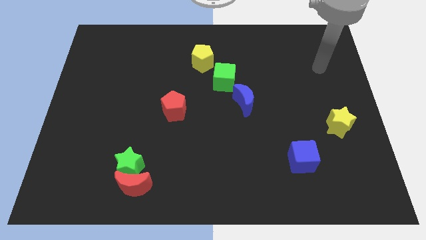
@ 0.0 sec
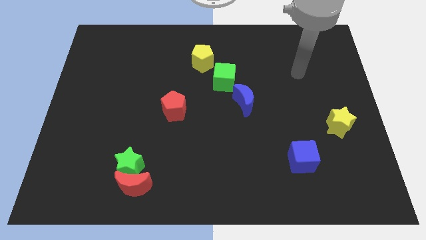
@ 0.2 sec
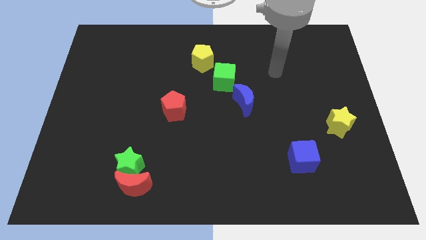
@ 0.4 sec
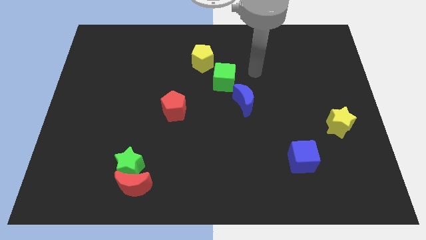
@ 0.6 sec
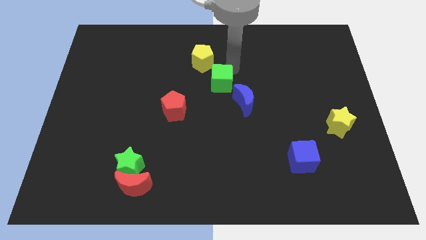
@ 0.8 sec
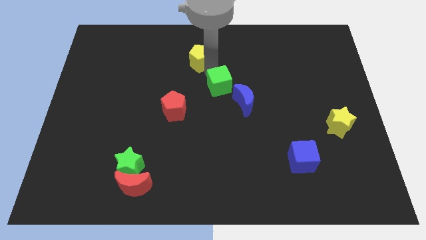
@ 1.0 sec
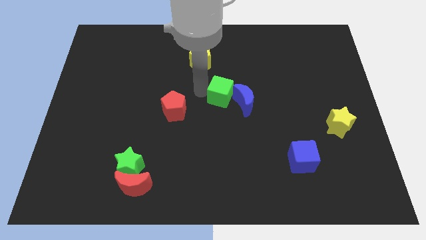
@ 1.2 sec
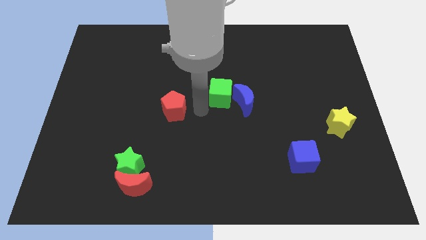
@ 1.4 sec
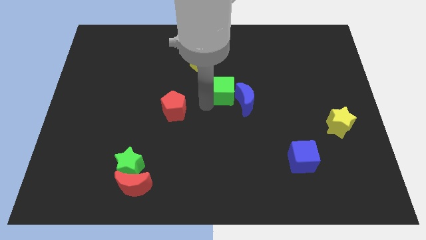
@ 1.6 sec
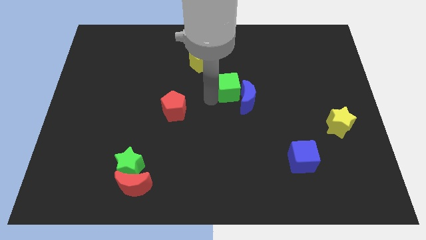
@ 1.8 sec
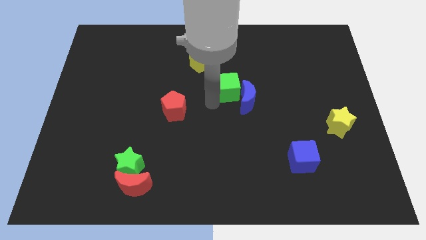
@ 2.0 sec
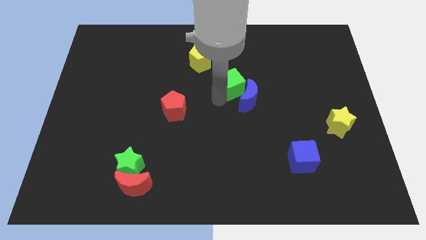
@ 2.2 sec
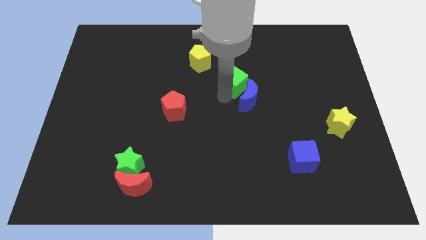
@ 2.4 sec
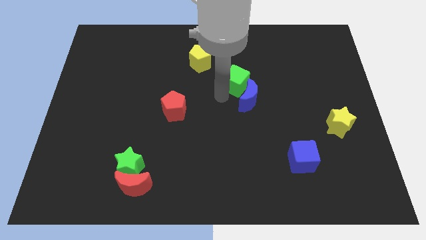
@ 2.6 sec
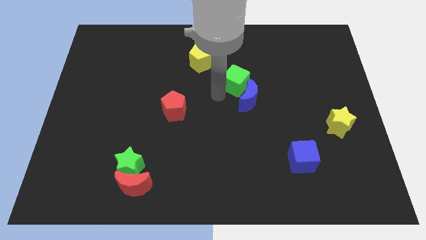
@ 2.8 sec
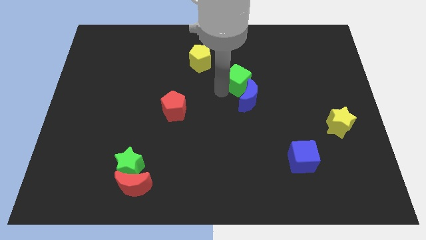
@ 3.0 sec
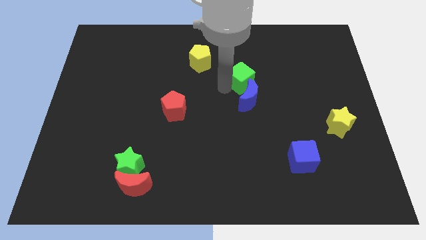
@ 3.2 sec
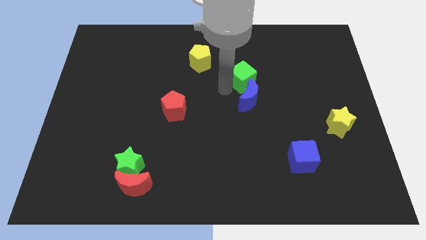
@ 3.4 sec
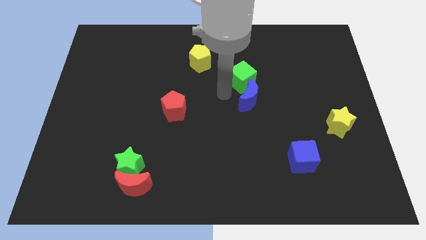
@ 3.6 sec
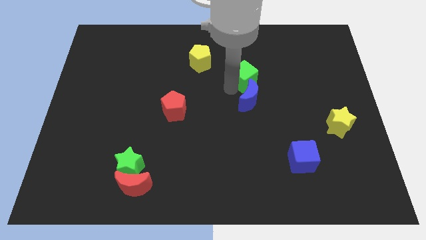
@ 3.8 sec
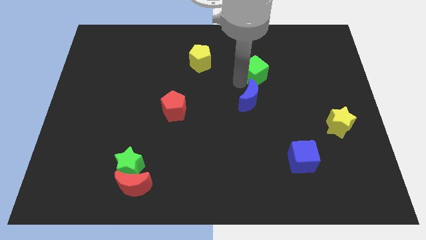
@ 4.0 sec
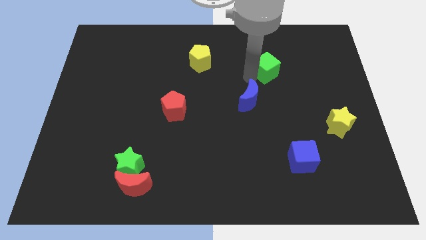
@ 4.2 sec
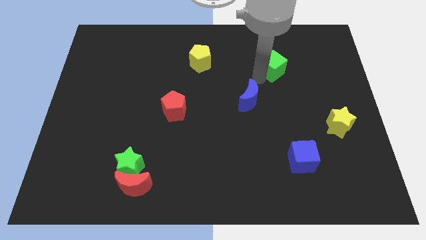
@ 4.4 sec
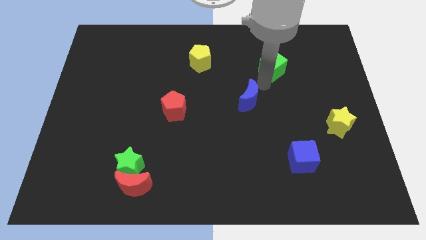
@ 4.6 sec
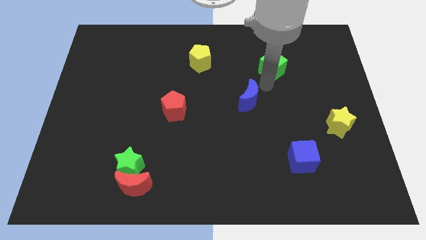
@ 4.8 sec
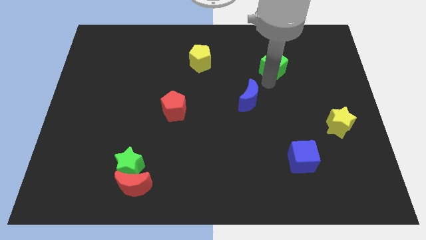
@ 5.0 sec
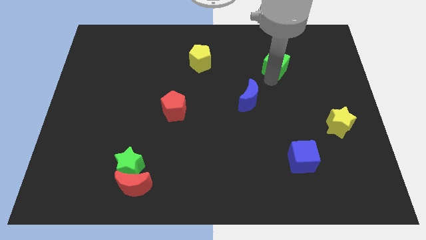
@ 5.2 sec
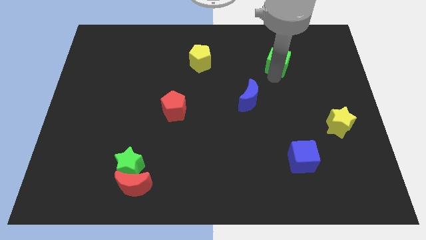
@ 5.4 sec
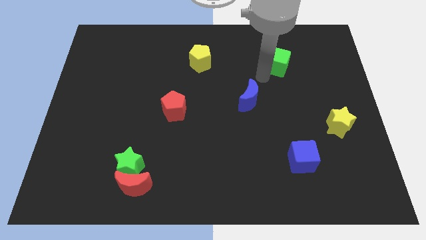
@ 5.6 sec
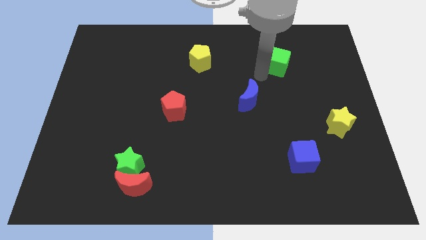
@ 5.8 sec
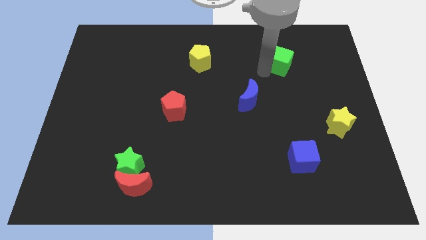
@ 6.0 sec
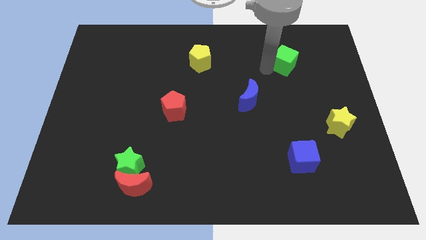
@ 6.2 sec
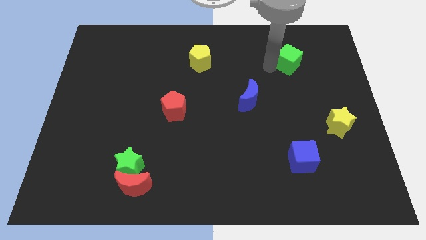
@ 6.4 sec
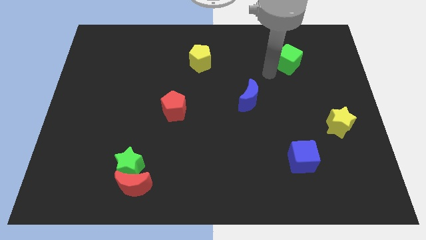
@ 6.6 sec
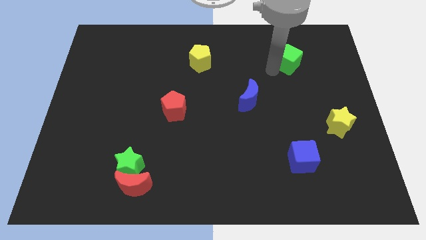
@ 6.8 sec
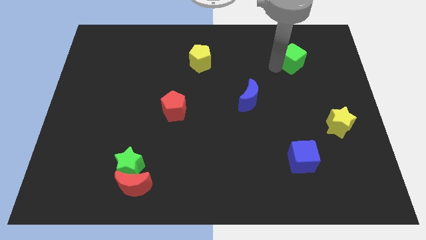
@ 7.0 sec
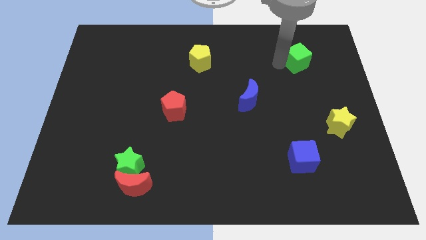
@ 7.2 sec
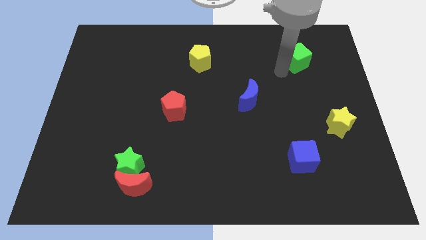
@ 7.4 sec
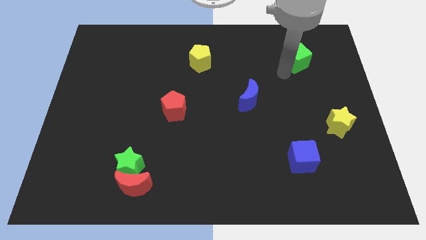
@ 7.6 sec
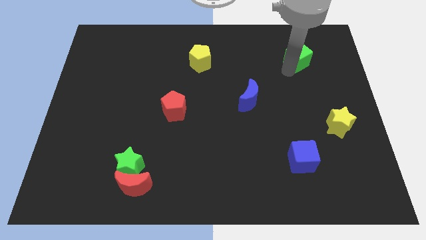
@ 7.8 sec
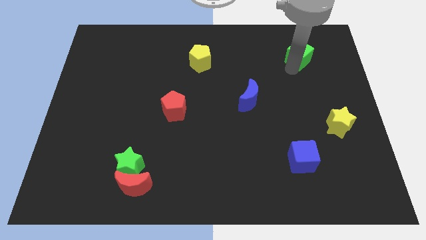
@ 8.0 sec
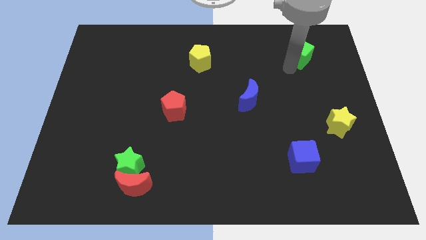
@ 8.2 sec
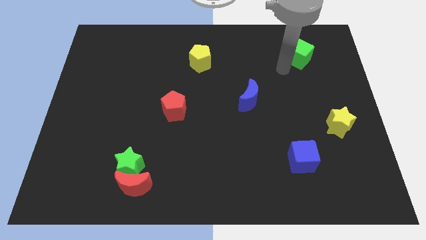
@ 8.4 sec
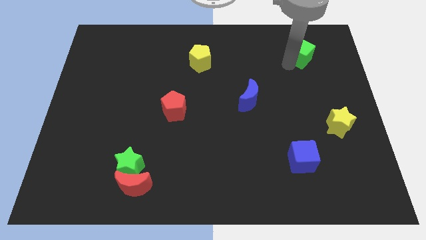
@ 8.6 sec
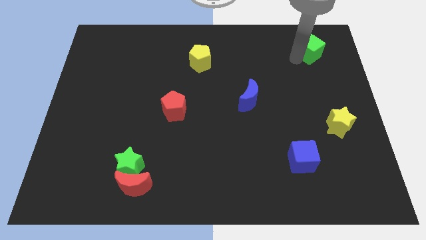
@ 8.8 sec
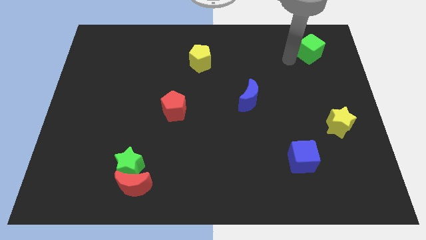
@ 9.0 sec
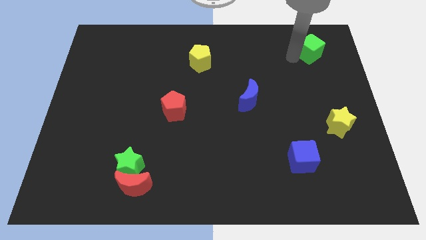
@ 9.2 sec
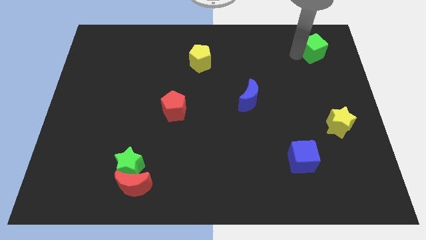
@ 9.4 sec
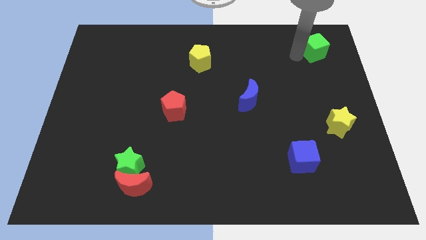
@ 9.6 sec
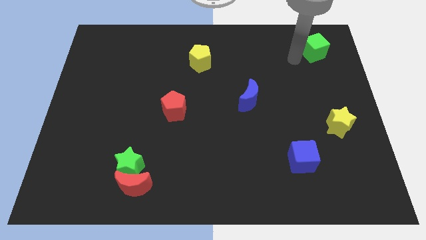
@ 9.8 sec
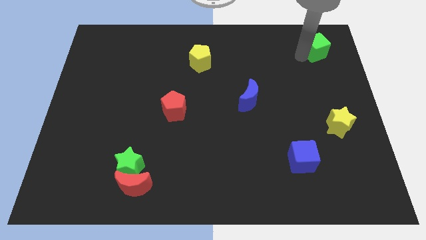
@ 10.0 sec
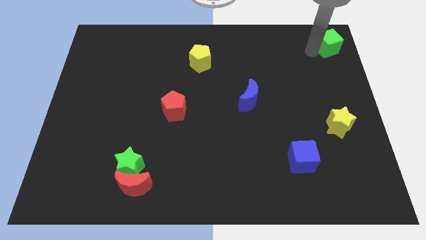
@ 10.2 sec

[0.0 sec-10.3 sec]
move the green cube to the upper right corner

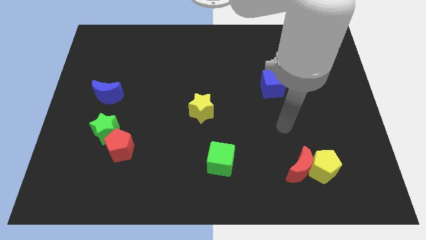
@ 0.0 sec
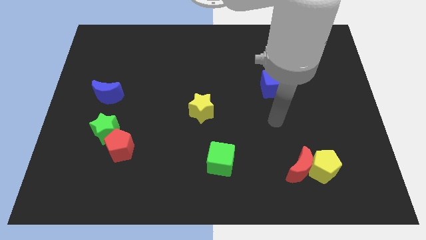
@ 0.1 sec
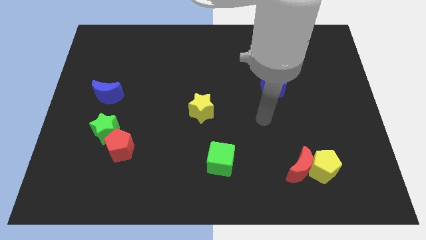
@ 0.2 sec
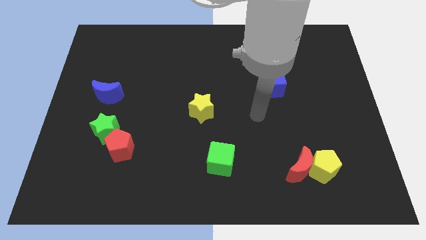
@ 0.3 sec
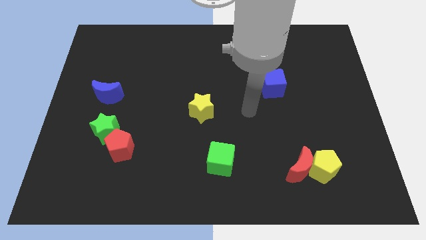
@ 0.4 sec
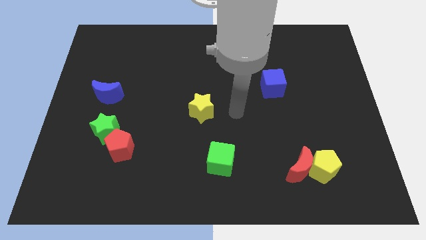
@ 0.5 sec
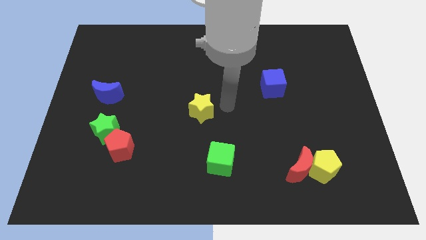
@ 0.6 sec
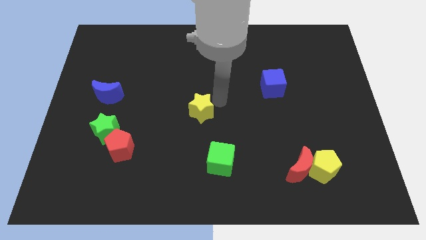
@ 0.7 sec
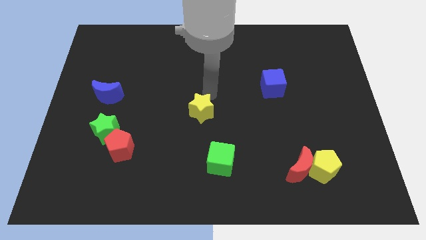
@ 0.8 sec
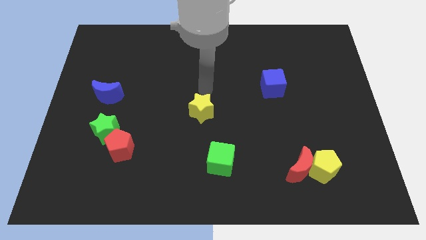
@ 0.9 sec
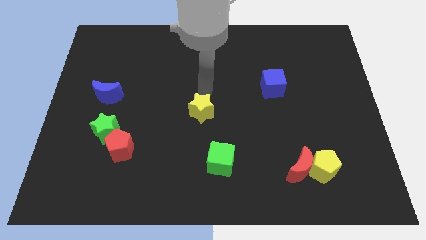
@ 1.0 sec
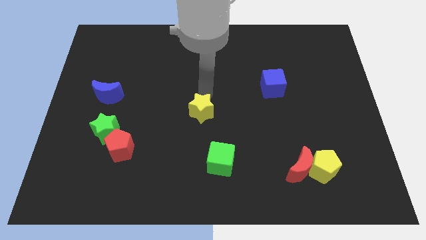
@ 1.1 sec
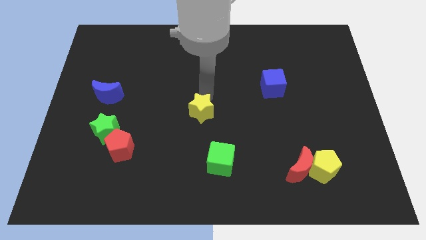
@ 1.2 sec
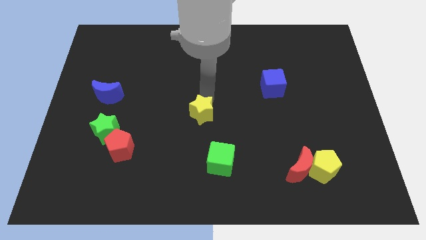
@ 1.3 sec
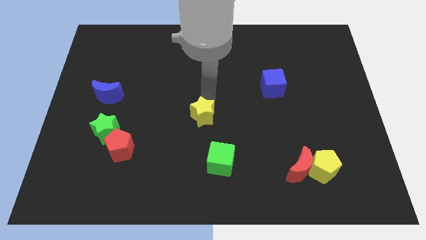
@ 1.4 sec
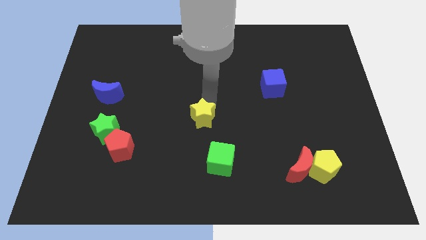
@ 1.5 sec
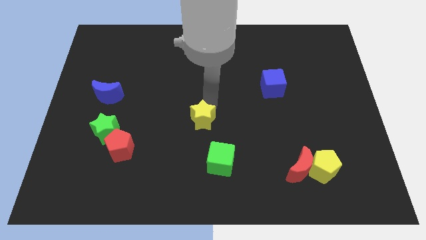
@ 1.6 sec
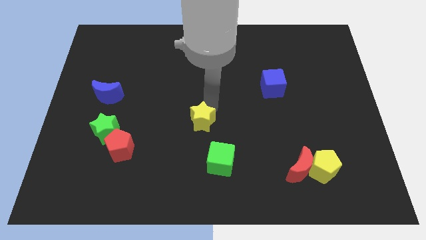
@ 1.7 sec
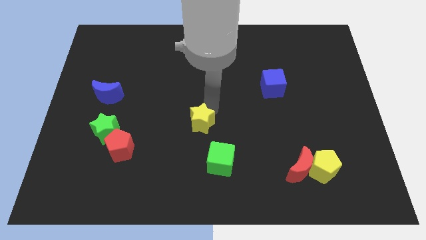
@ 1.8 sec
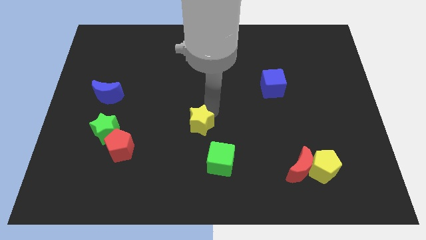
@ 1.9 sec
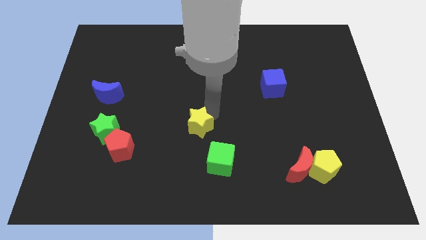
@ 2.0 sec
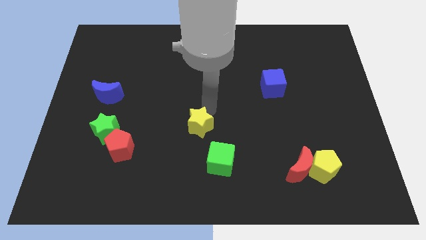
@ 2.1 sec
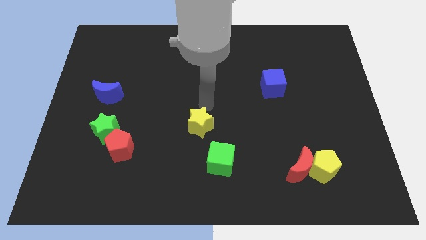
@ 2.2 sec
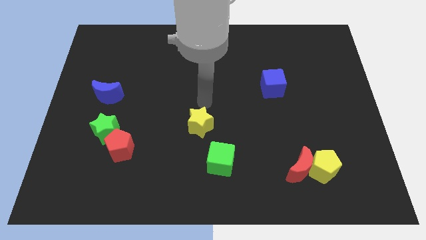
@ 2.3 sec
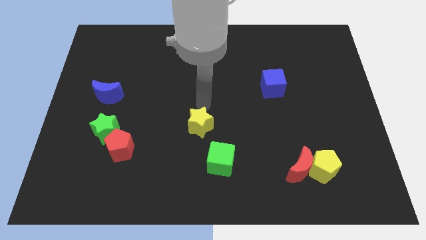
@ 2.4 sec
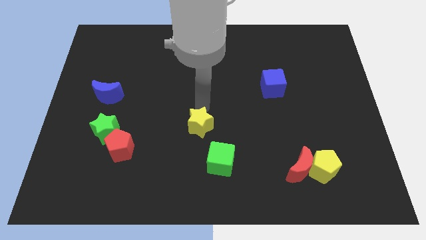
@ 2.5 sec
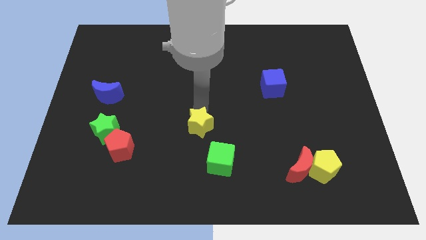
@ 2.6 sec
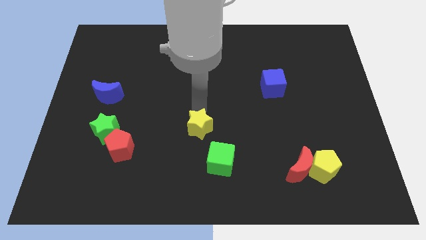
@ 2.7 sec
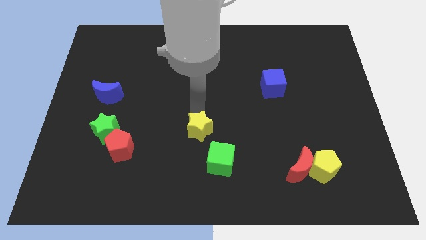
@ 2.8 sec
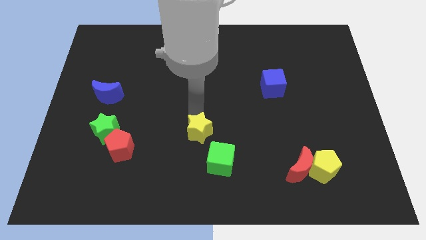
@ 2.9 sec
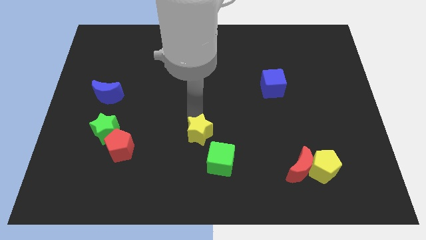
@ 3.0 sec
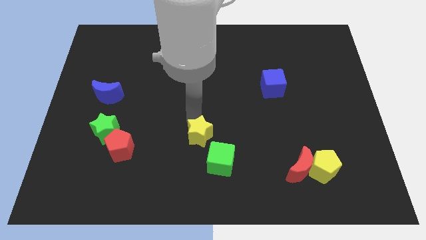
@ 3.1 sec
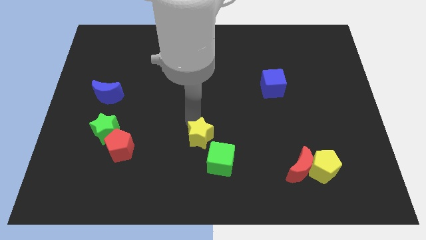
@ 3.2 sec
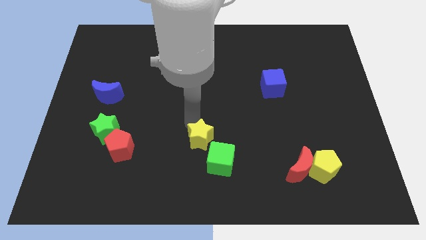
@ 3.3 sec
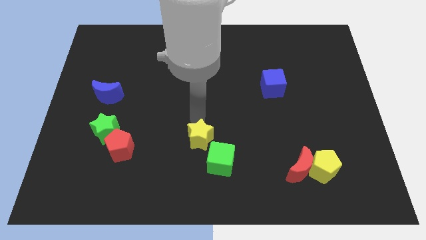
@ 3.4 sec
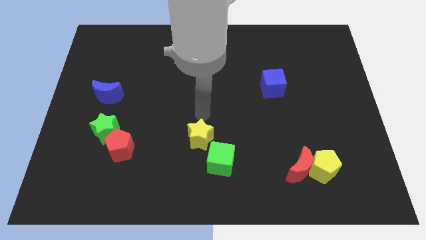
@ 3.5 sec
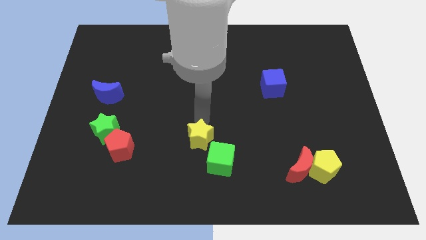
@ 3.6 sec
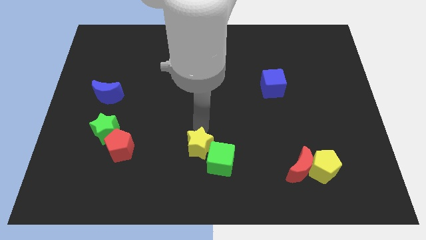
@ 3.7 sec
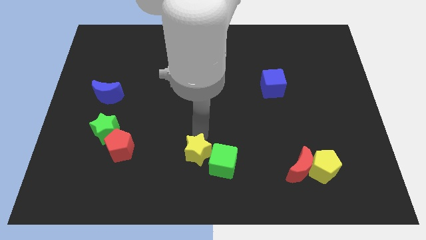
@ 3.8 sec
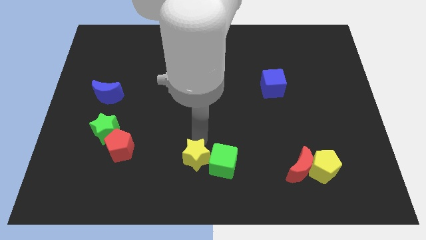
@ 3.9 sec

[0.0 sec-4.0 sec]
push the yellow star to the bottom side
